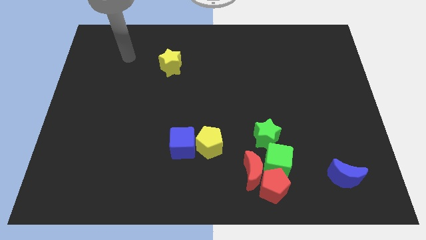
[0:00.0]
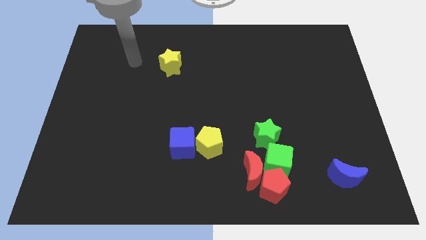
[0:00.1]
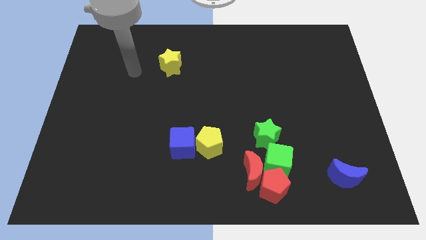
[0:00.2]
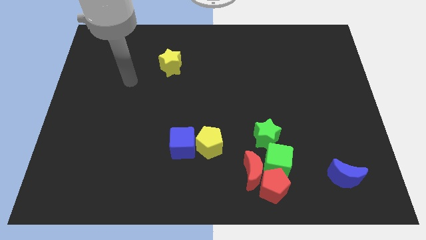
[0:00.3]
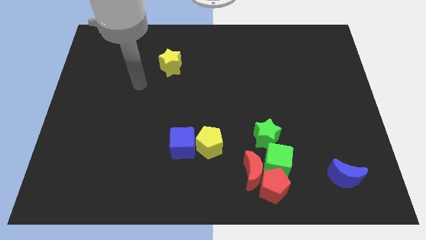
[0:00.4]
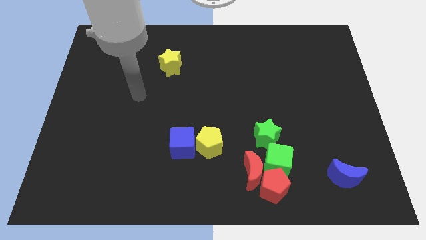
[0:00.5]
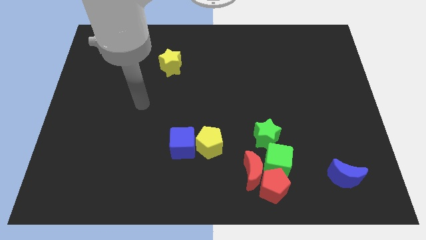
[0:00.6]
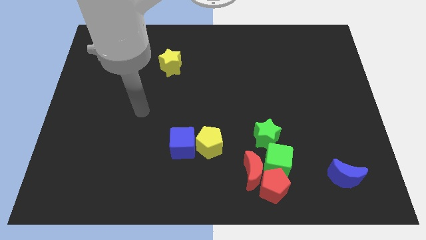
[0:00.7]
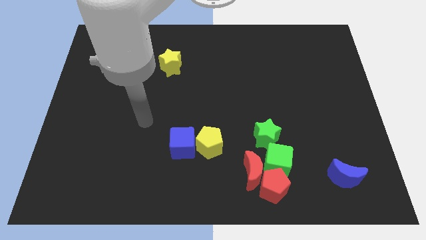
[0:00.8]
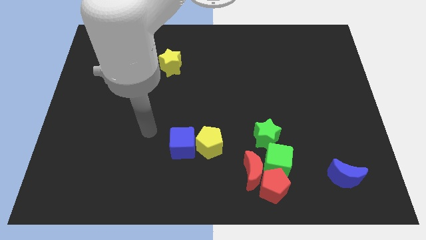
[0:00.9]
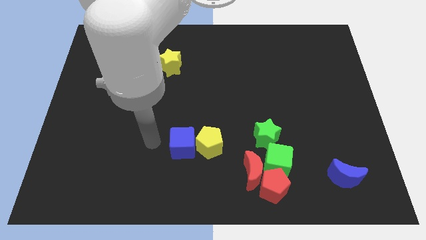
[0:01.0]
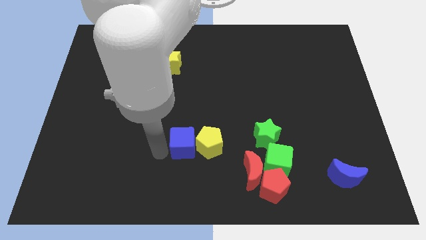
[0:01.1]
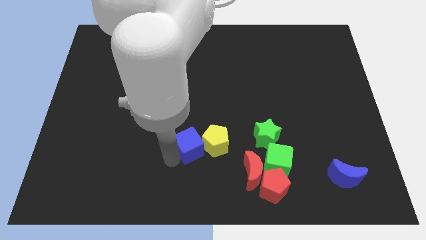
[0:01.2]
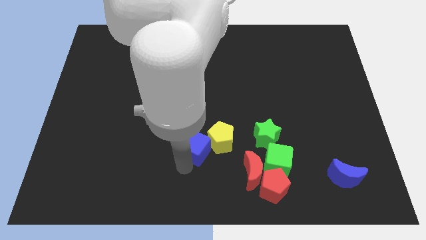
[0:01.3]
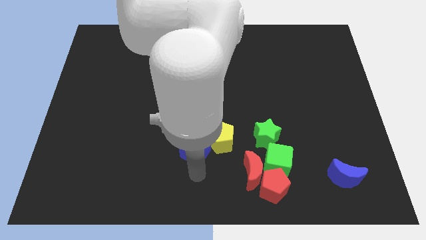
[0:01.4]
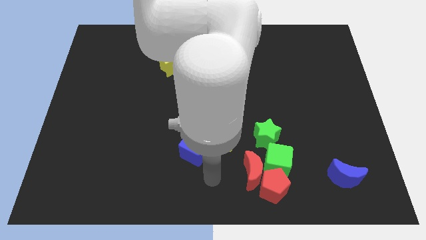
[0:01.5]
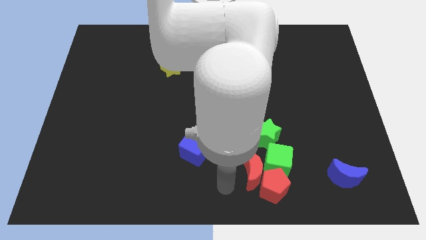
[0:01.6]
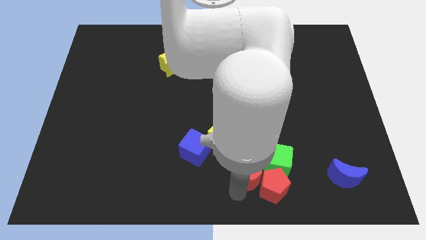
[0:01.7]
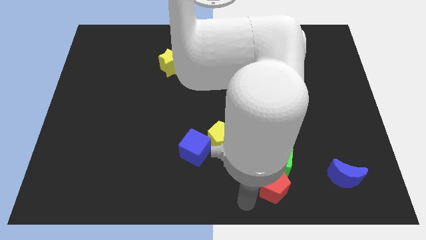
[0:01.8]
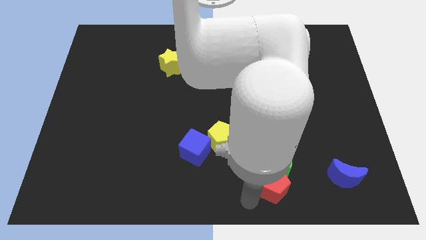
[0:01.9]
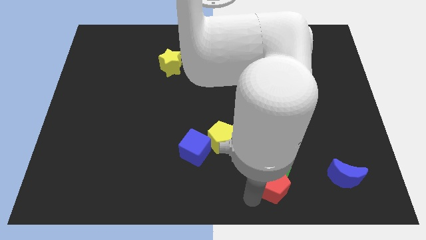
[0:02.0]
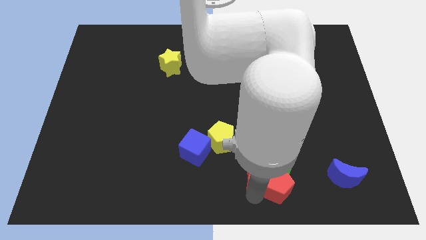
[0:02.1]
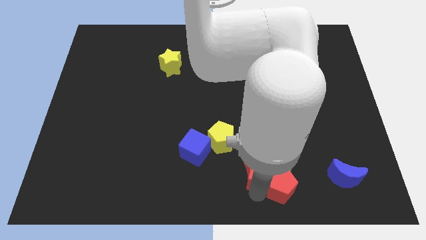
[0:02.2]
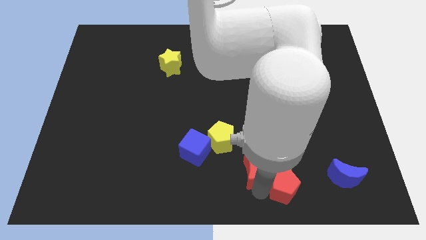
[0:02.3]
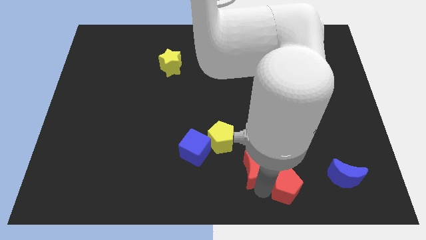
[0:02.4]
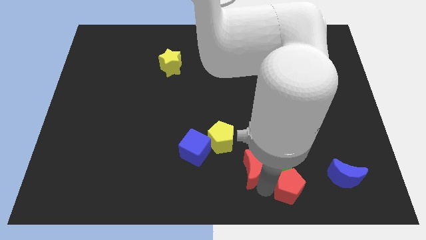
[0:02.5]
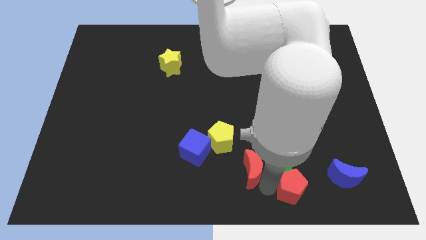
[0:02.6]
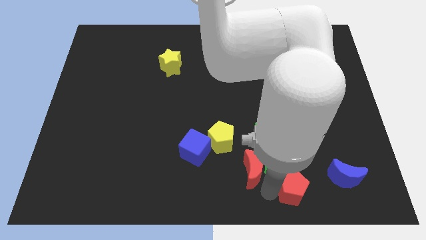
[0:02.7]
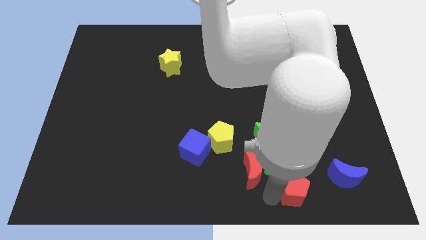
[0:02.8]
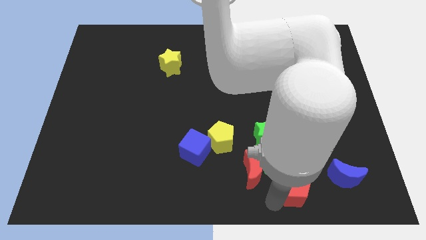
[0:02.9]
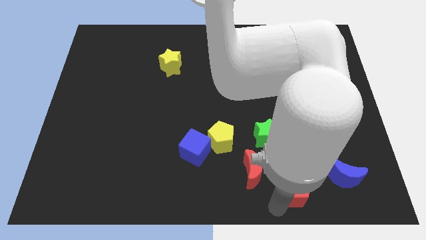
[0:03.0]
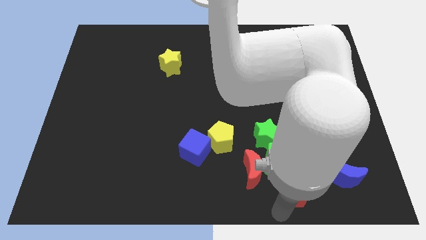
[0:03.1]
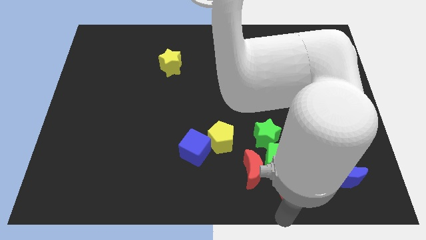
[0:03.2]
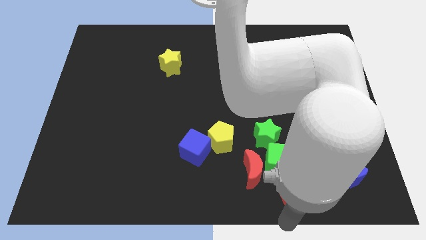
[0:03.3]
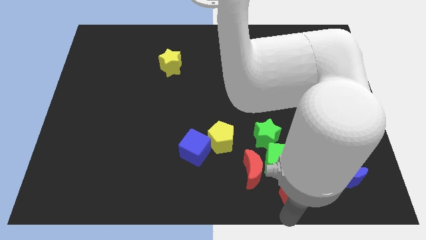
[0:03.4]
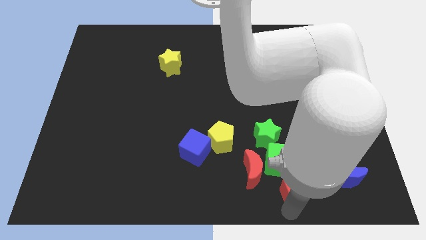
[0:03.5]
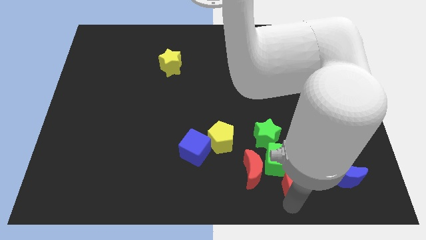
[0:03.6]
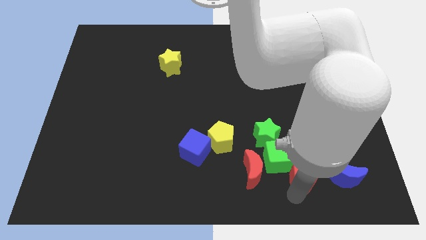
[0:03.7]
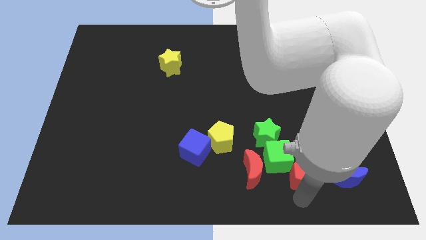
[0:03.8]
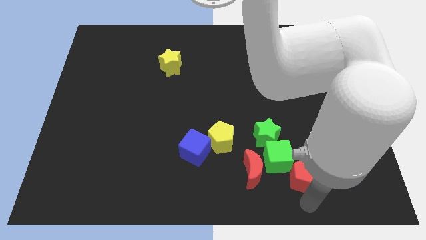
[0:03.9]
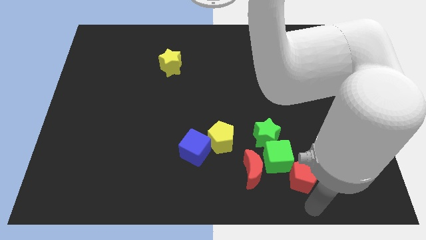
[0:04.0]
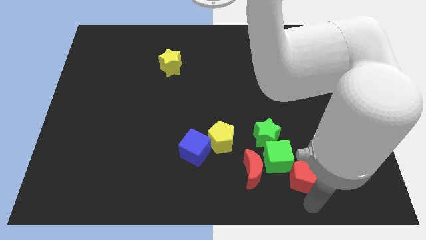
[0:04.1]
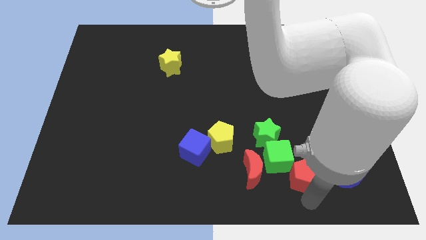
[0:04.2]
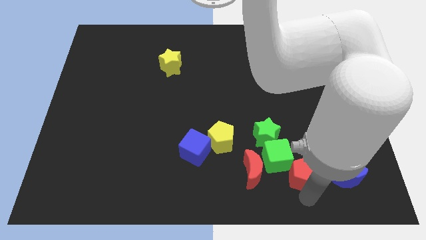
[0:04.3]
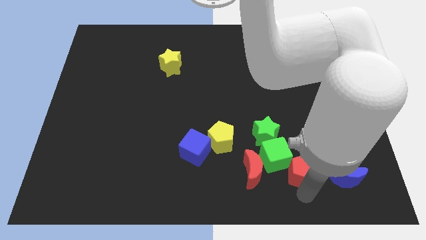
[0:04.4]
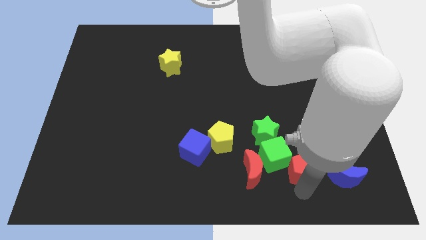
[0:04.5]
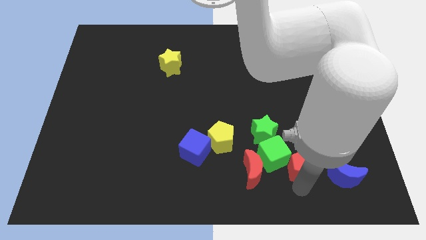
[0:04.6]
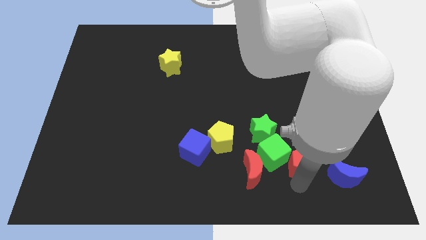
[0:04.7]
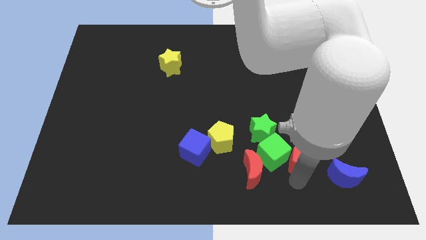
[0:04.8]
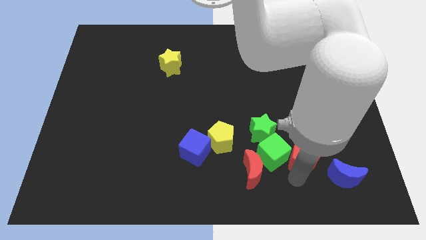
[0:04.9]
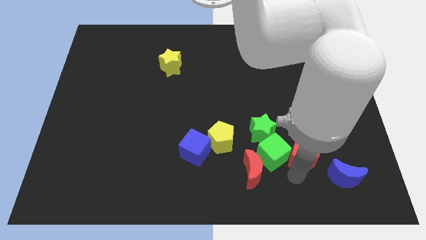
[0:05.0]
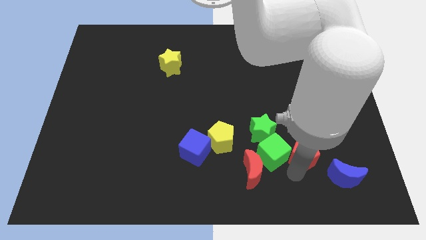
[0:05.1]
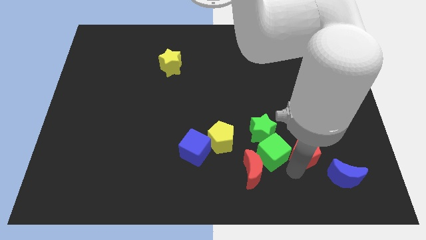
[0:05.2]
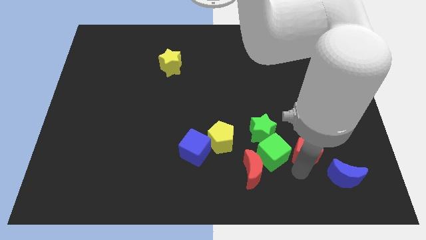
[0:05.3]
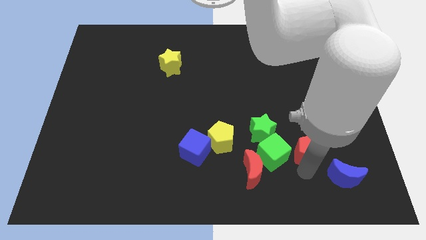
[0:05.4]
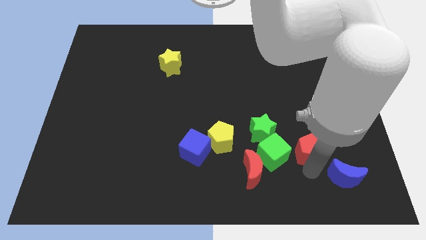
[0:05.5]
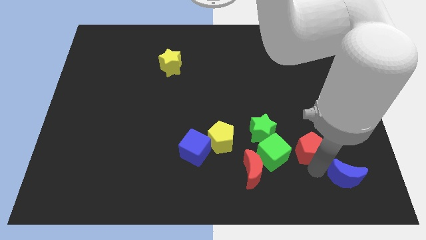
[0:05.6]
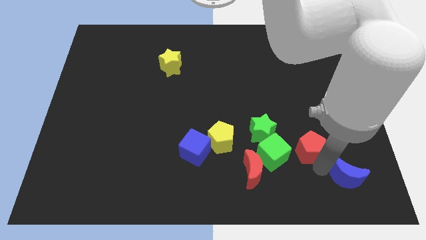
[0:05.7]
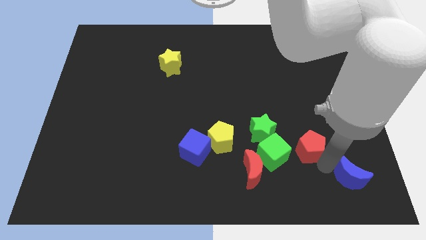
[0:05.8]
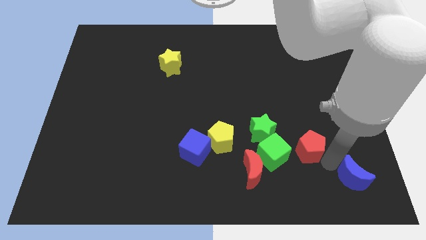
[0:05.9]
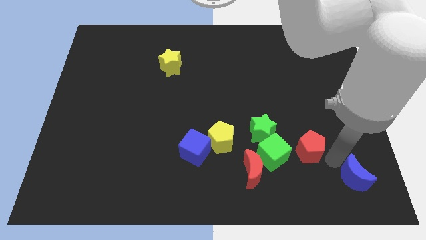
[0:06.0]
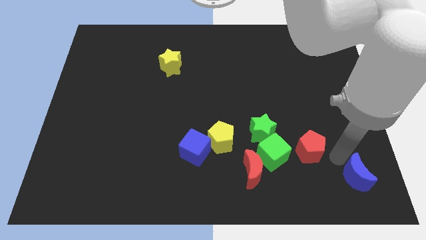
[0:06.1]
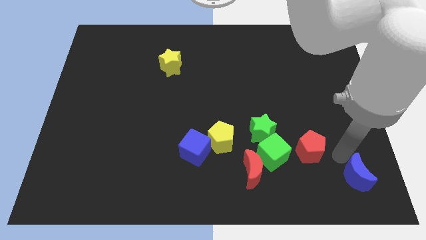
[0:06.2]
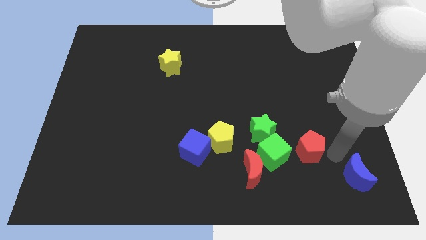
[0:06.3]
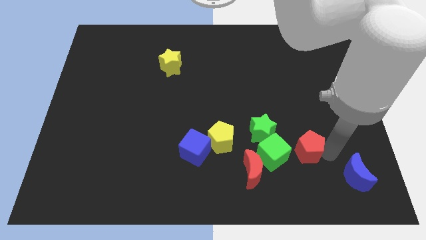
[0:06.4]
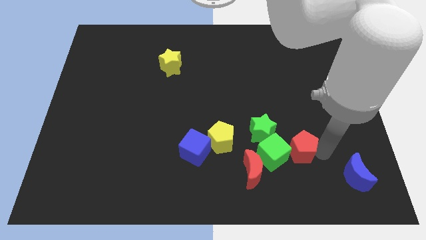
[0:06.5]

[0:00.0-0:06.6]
push the red pentagon a bit upwards

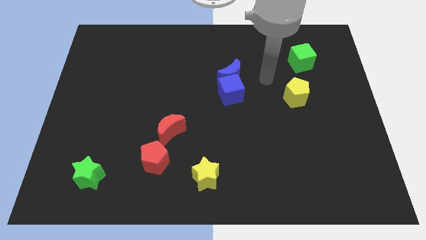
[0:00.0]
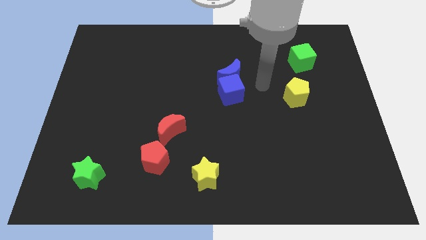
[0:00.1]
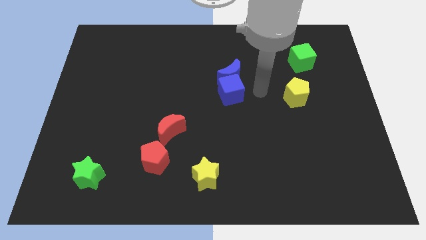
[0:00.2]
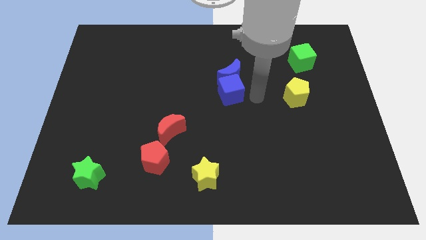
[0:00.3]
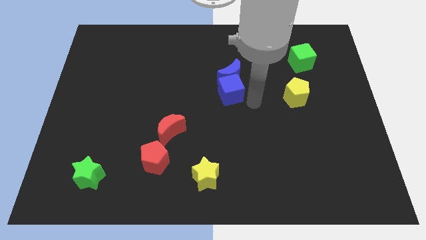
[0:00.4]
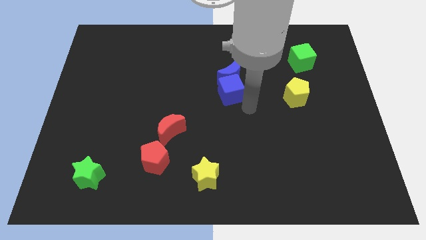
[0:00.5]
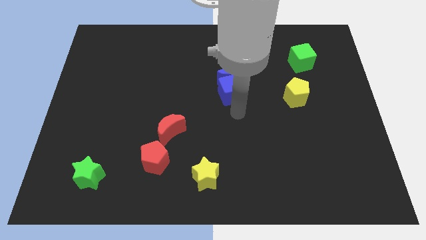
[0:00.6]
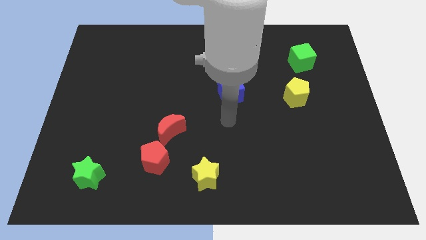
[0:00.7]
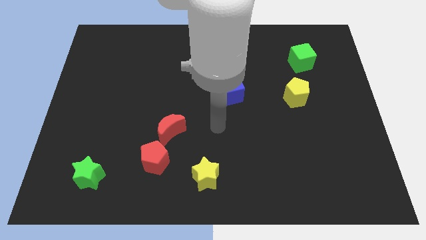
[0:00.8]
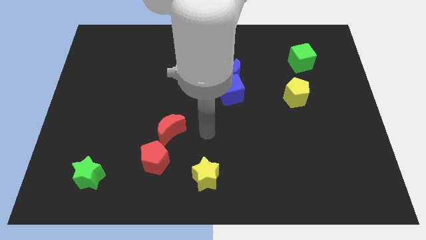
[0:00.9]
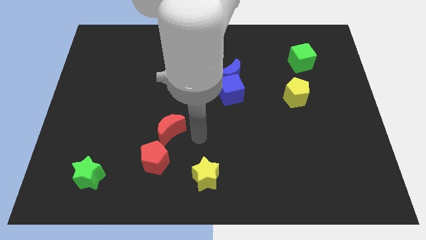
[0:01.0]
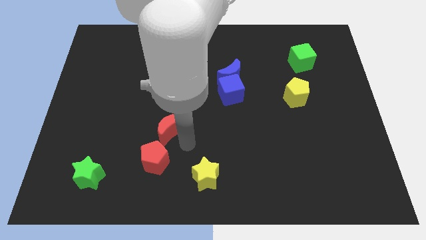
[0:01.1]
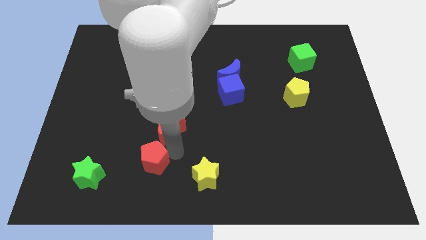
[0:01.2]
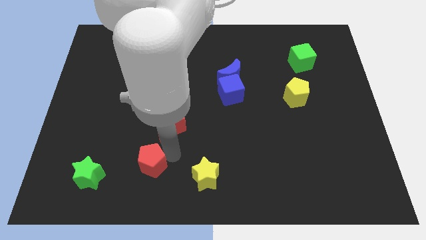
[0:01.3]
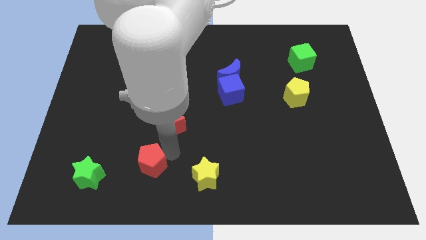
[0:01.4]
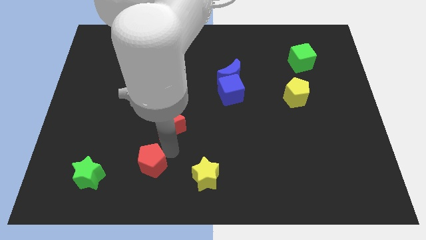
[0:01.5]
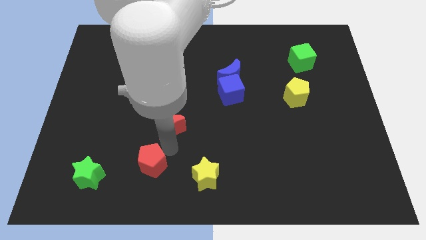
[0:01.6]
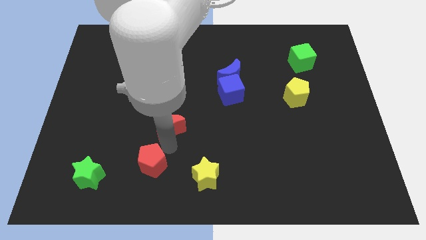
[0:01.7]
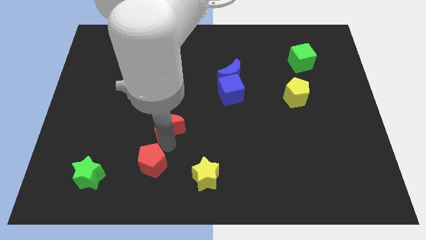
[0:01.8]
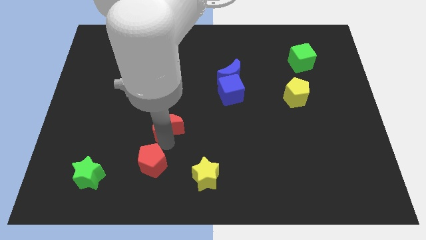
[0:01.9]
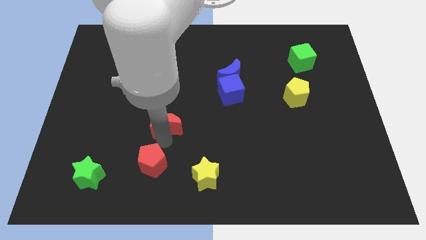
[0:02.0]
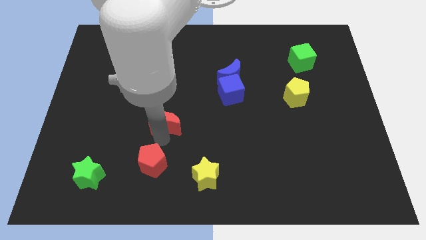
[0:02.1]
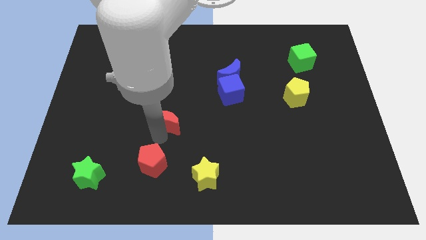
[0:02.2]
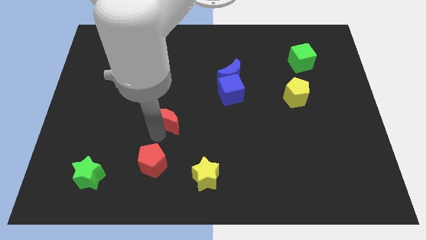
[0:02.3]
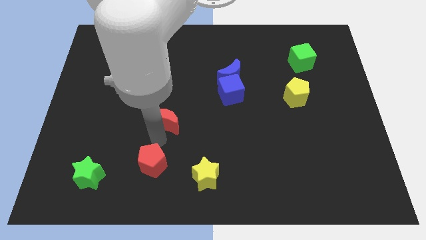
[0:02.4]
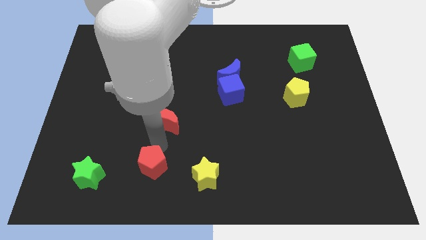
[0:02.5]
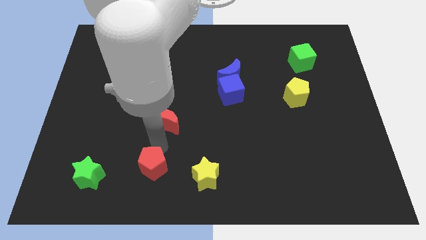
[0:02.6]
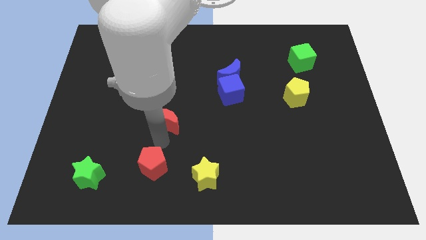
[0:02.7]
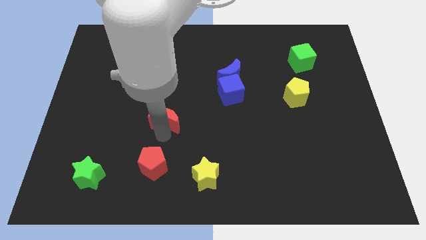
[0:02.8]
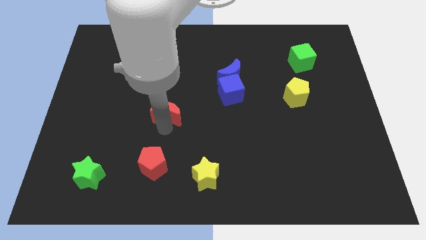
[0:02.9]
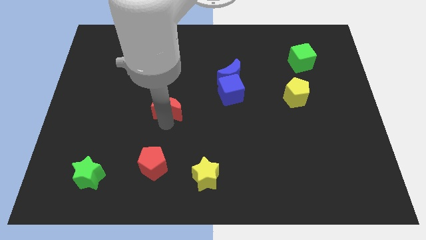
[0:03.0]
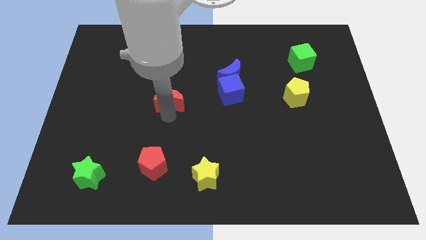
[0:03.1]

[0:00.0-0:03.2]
slightly move the red moon up
